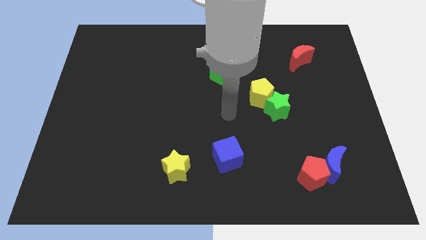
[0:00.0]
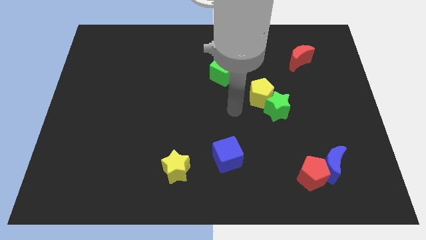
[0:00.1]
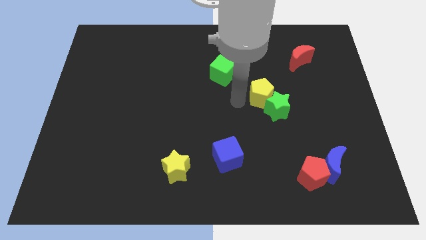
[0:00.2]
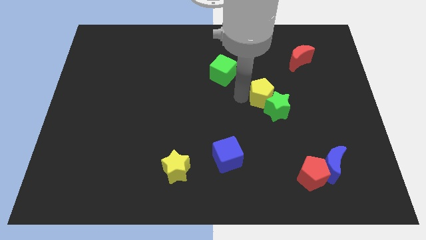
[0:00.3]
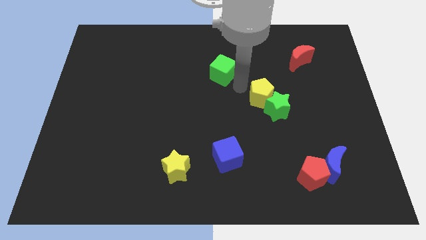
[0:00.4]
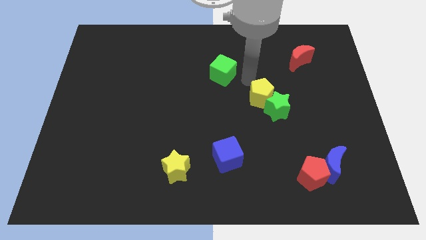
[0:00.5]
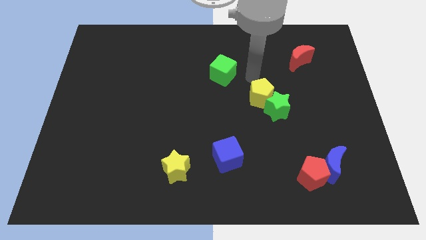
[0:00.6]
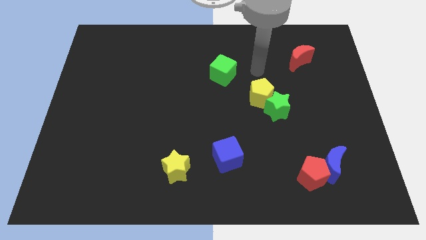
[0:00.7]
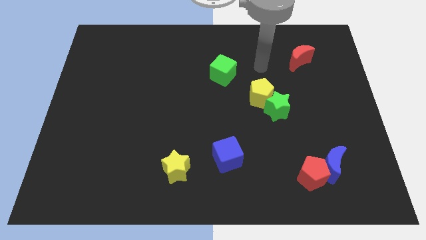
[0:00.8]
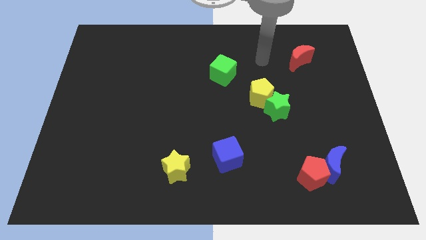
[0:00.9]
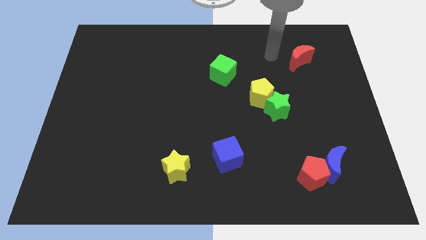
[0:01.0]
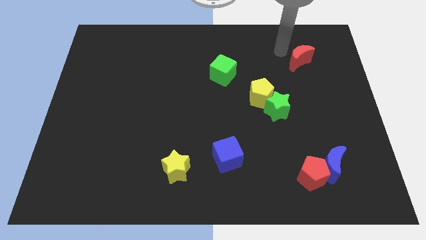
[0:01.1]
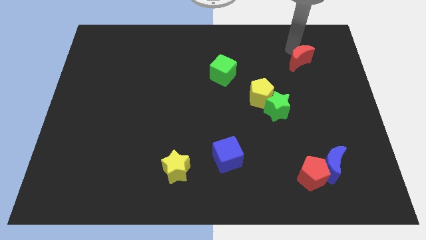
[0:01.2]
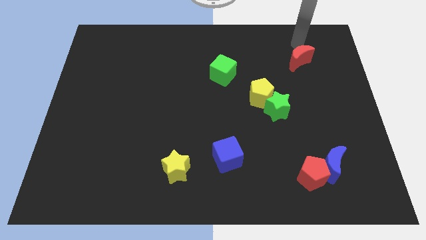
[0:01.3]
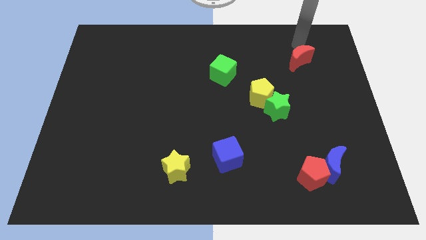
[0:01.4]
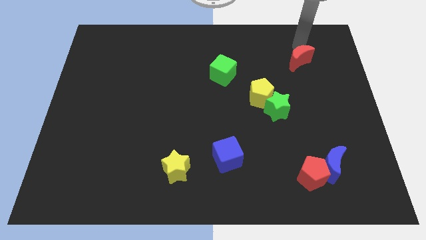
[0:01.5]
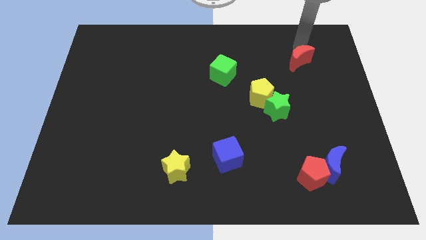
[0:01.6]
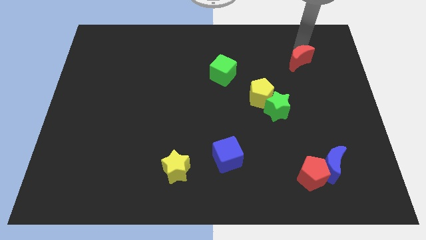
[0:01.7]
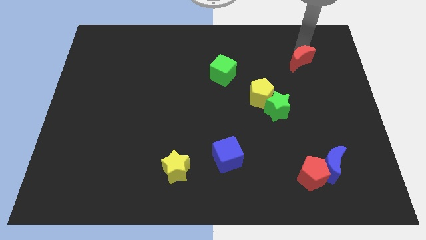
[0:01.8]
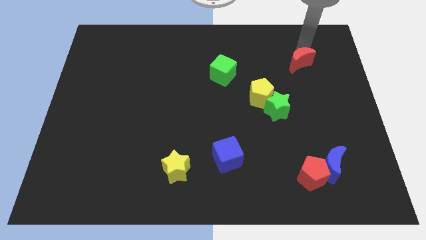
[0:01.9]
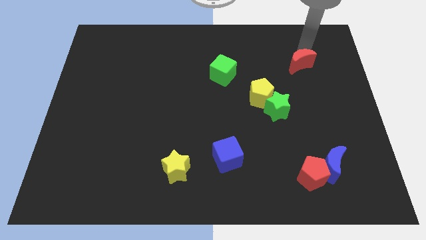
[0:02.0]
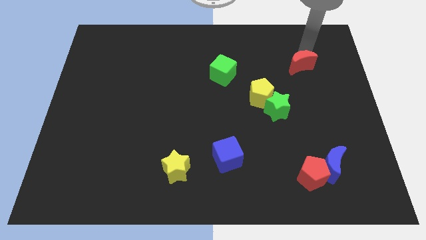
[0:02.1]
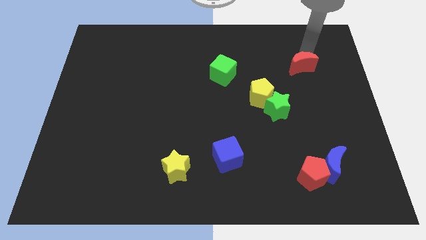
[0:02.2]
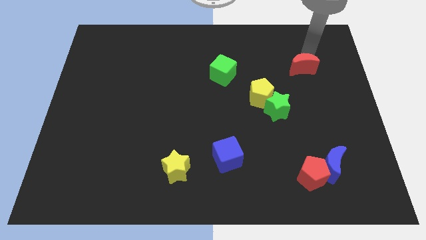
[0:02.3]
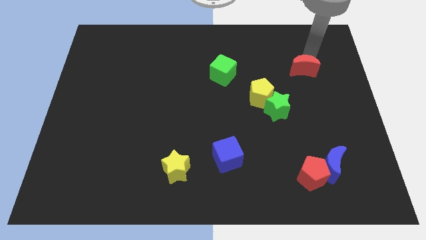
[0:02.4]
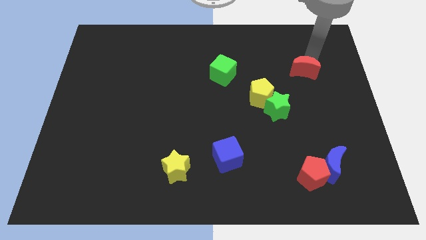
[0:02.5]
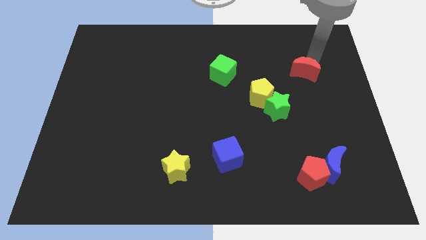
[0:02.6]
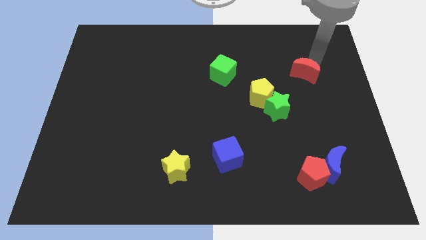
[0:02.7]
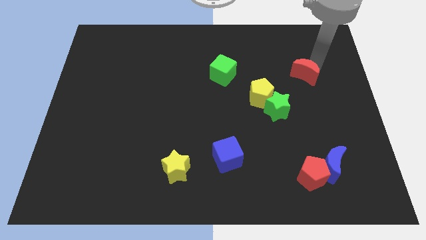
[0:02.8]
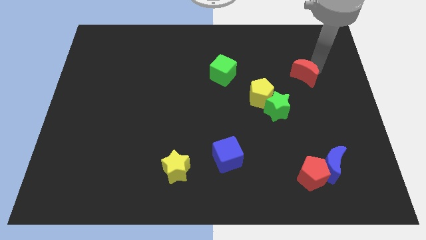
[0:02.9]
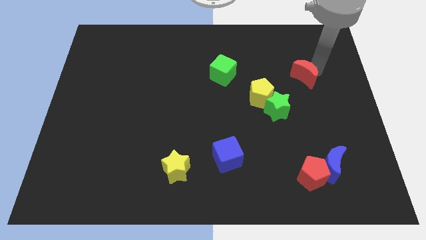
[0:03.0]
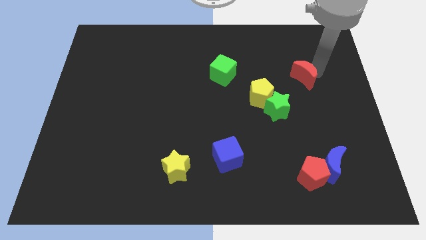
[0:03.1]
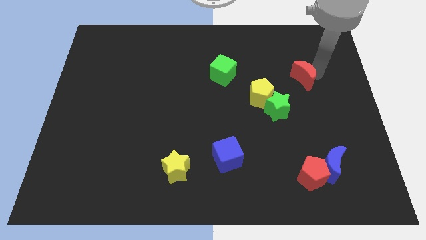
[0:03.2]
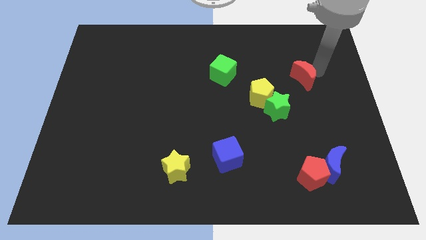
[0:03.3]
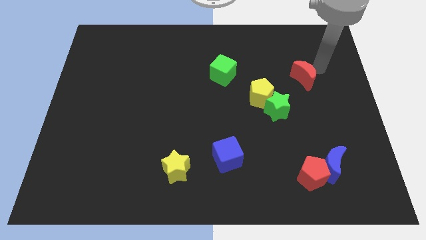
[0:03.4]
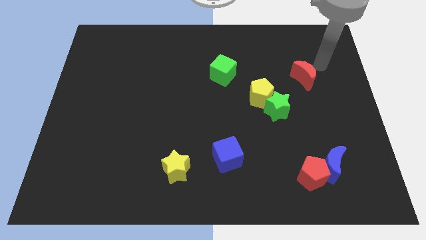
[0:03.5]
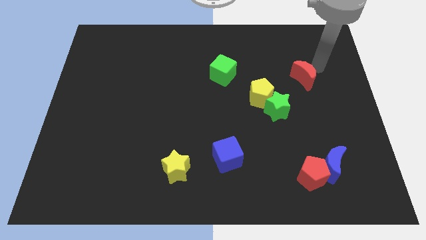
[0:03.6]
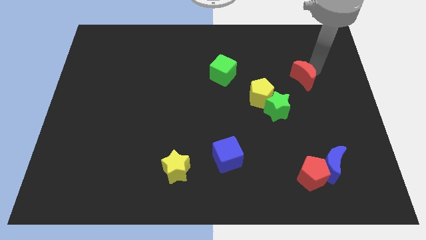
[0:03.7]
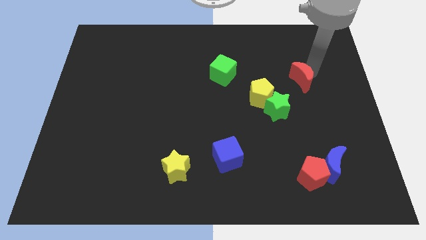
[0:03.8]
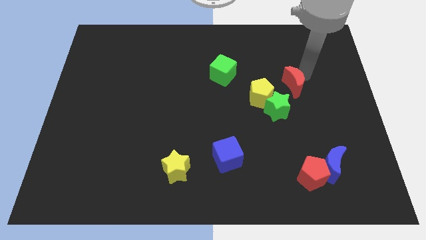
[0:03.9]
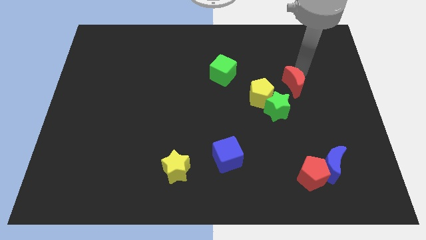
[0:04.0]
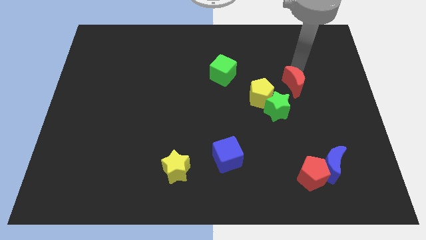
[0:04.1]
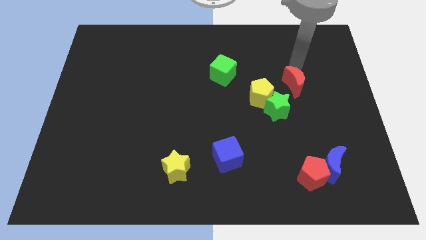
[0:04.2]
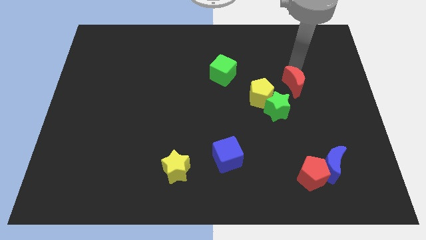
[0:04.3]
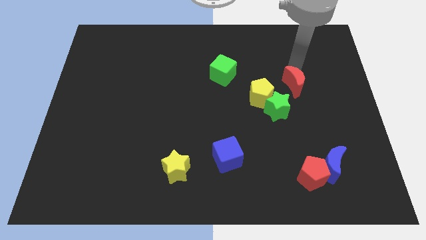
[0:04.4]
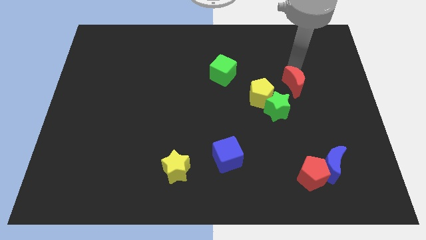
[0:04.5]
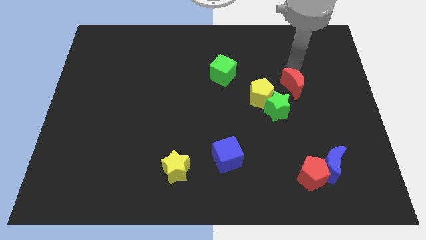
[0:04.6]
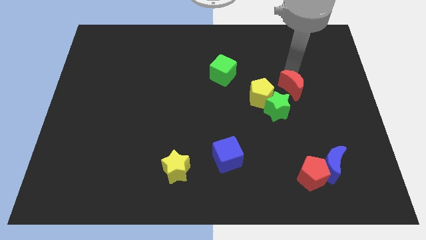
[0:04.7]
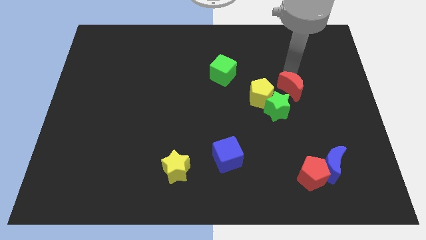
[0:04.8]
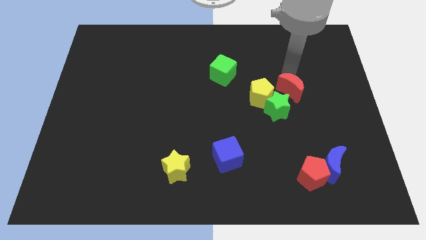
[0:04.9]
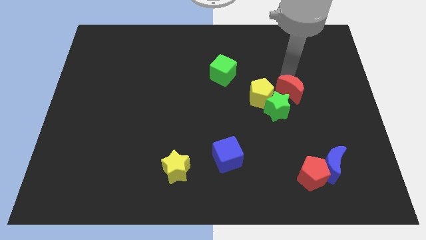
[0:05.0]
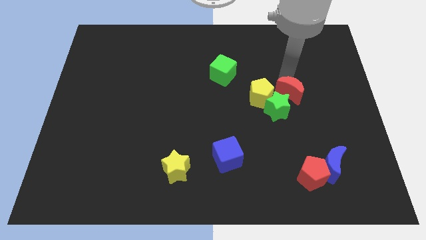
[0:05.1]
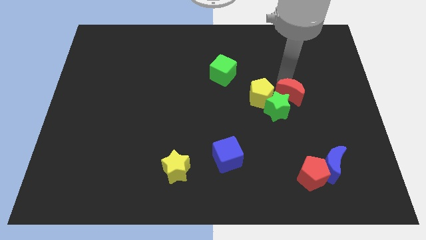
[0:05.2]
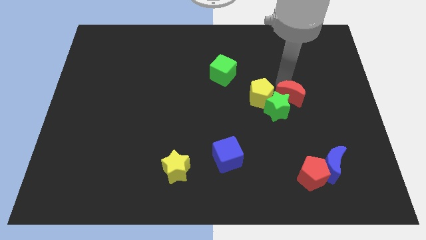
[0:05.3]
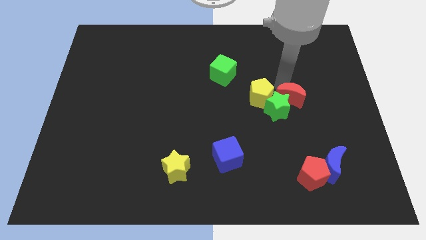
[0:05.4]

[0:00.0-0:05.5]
slide the red moon diagonally down and to the right of the yellow pentagon

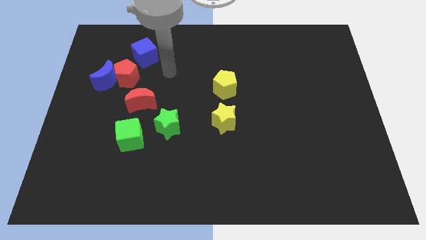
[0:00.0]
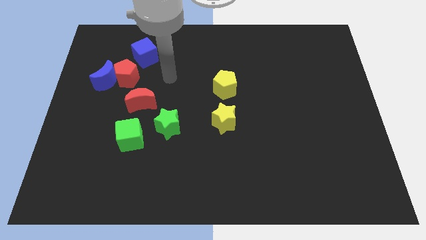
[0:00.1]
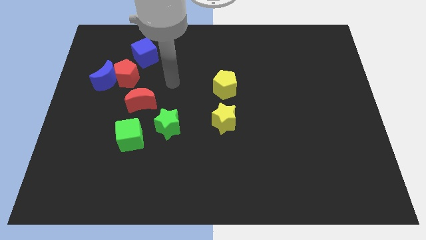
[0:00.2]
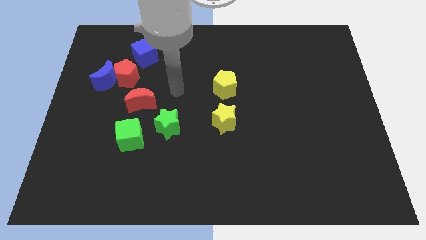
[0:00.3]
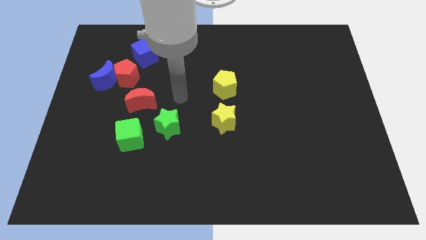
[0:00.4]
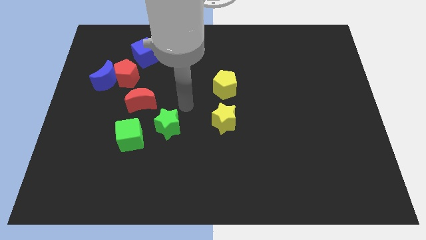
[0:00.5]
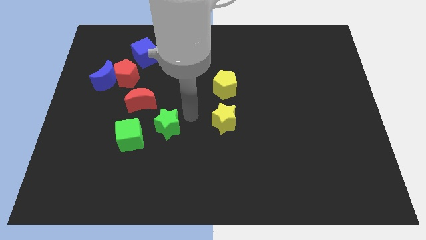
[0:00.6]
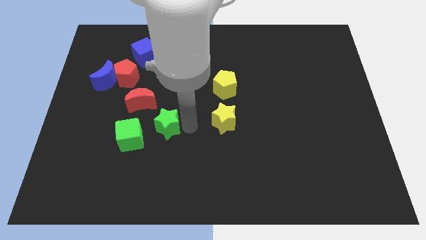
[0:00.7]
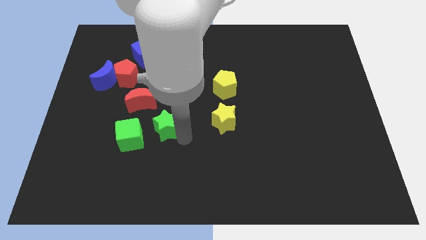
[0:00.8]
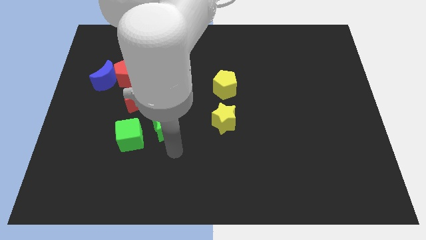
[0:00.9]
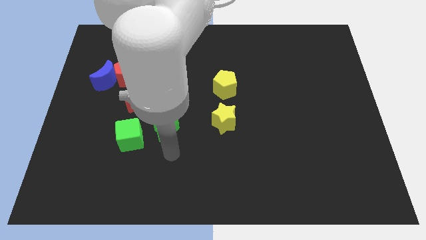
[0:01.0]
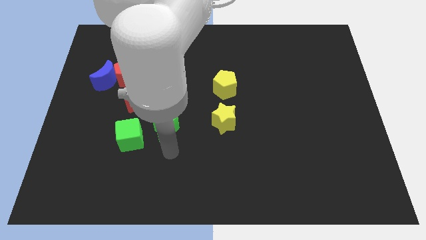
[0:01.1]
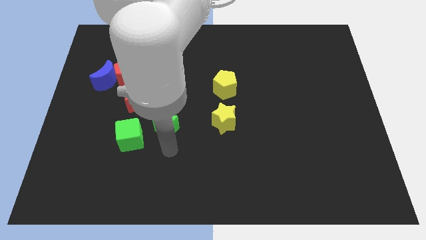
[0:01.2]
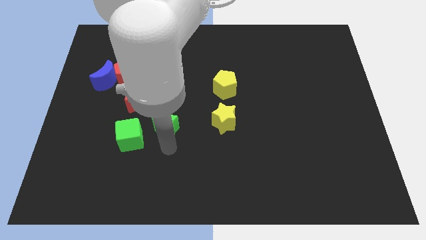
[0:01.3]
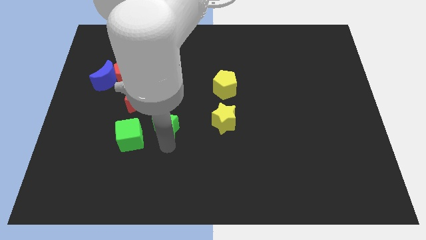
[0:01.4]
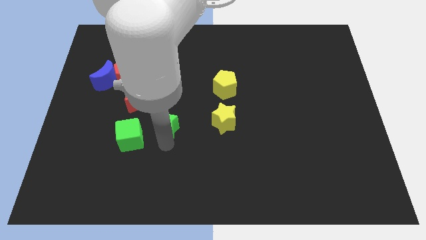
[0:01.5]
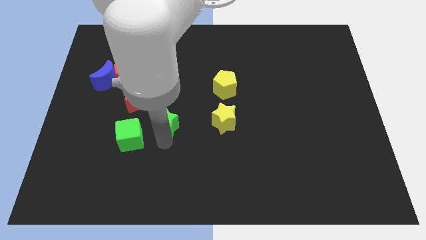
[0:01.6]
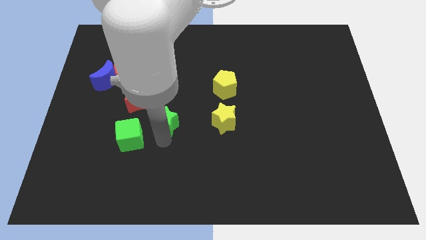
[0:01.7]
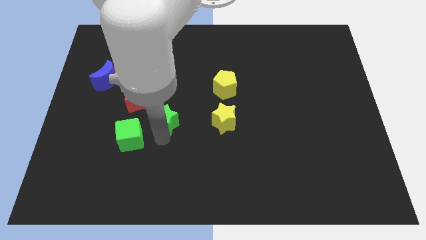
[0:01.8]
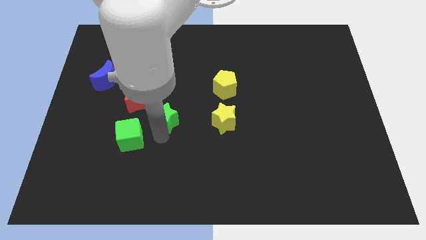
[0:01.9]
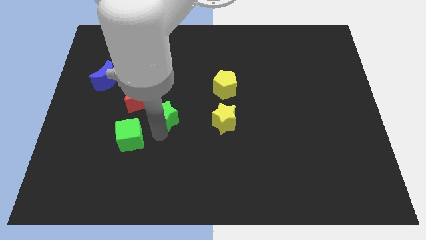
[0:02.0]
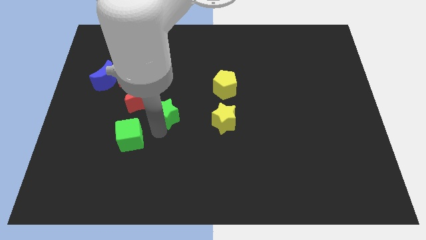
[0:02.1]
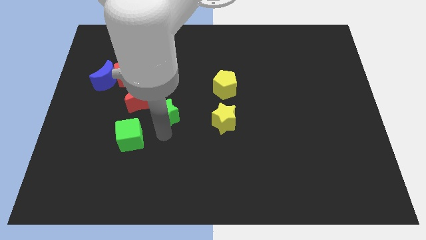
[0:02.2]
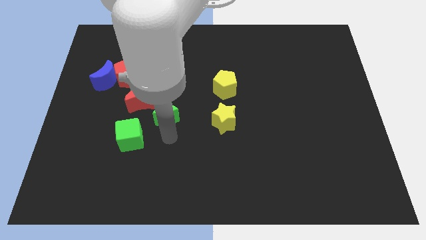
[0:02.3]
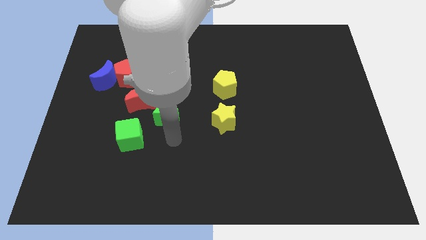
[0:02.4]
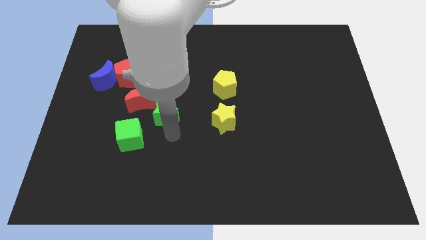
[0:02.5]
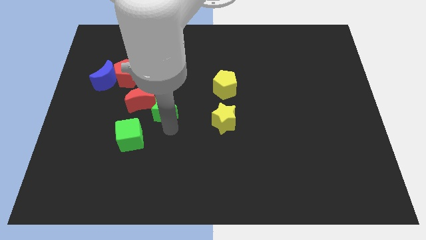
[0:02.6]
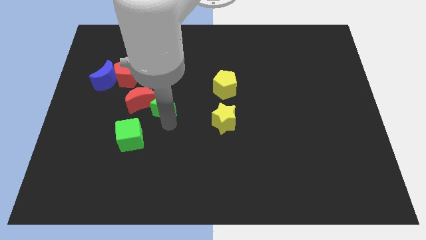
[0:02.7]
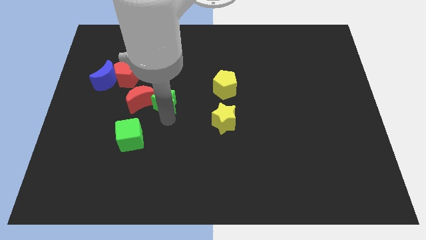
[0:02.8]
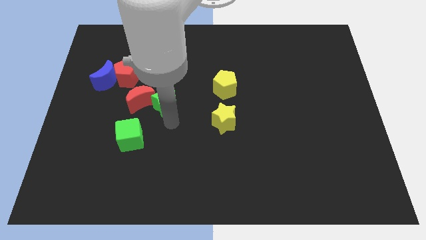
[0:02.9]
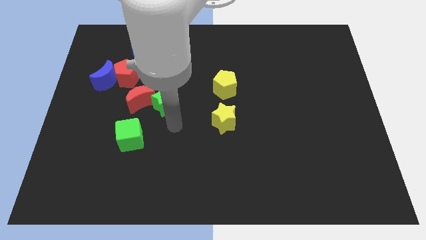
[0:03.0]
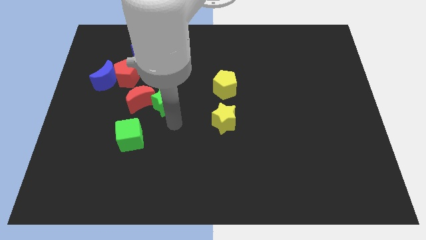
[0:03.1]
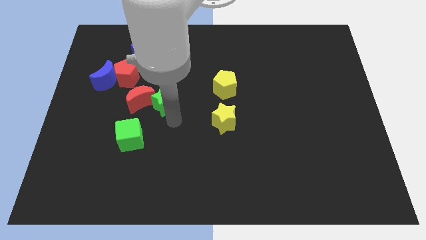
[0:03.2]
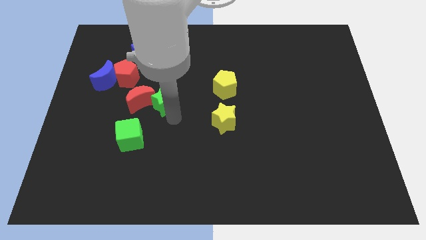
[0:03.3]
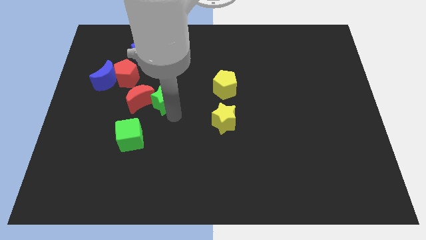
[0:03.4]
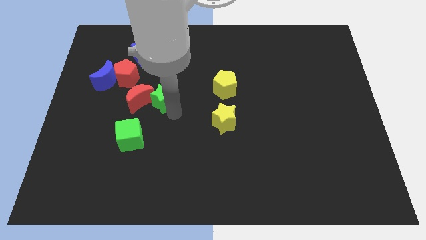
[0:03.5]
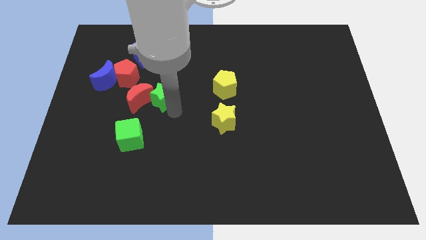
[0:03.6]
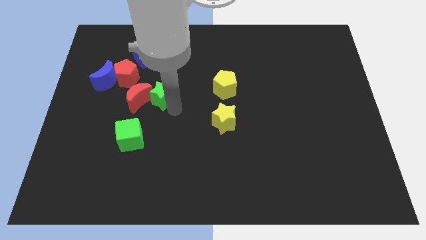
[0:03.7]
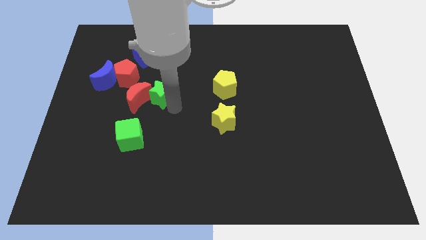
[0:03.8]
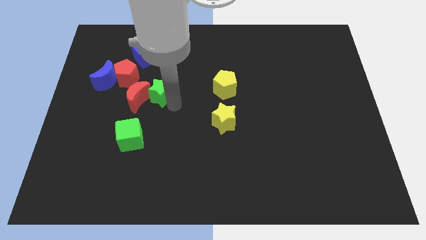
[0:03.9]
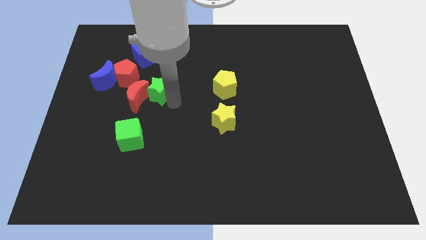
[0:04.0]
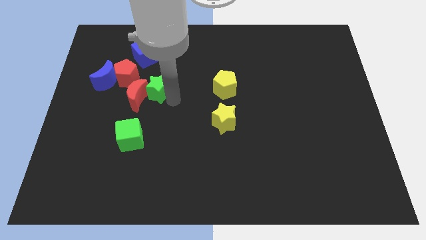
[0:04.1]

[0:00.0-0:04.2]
put the green star right of the blue moon
